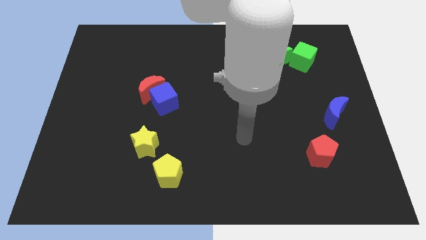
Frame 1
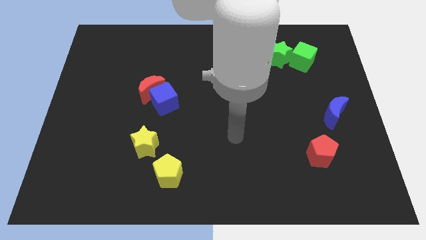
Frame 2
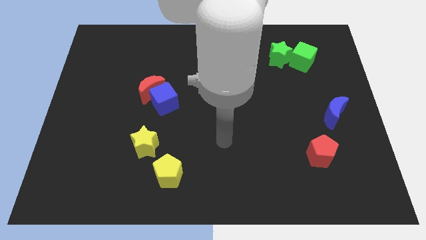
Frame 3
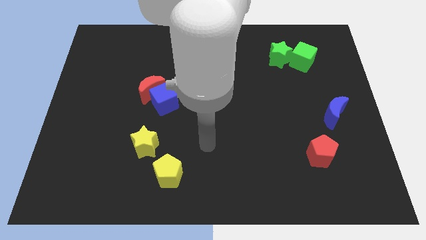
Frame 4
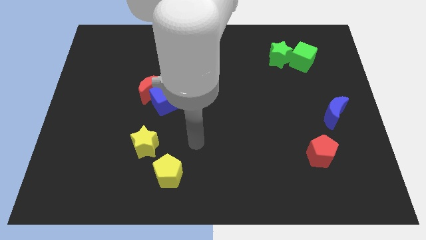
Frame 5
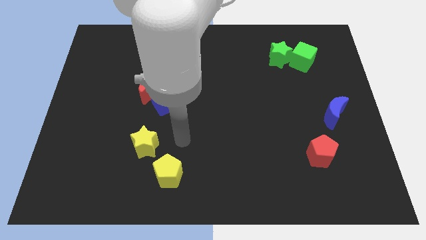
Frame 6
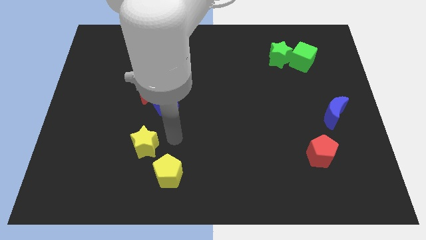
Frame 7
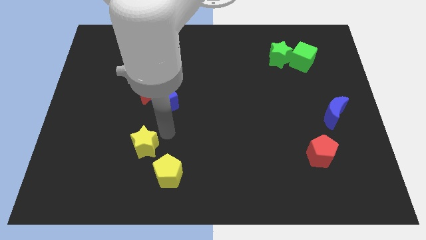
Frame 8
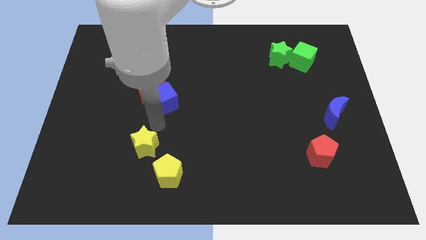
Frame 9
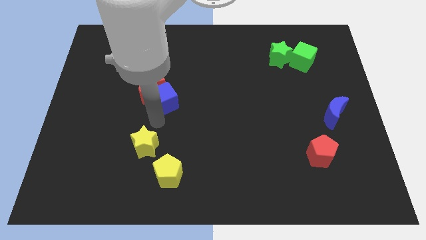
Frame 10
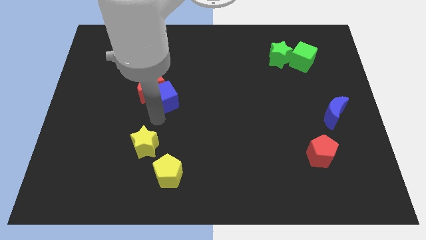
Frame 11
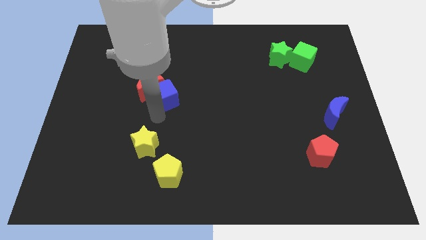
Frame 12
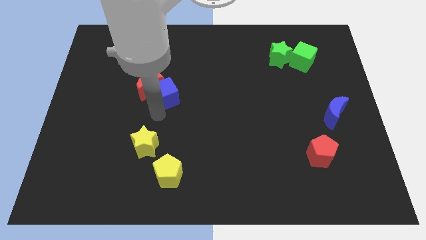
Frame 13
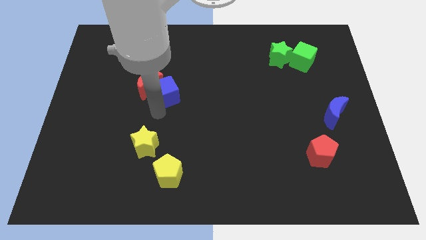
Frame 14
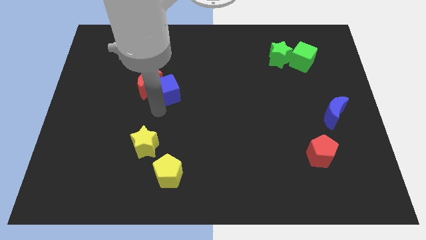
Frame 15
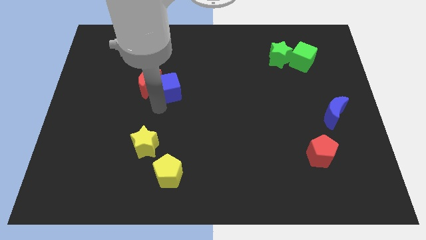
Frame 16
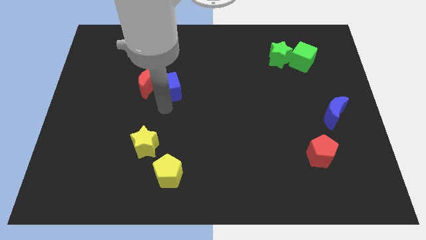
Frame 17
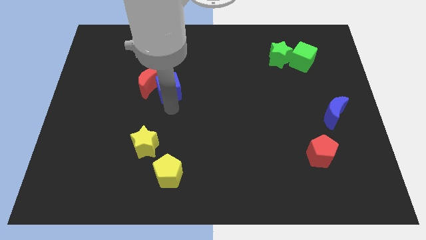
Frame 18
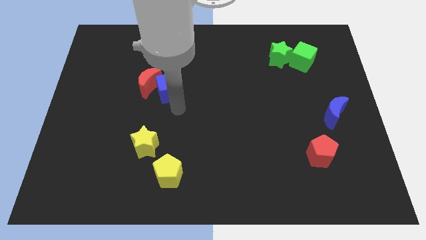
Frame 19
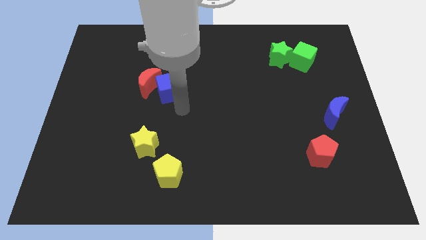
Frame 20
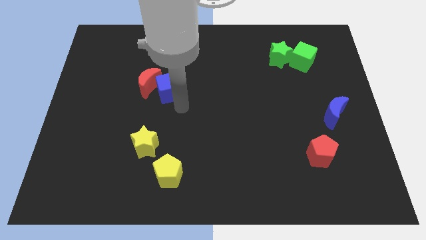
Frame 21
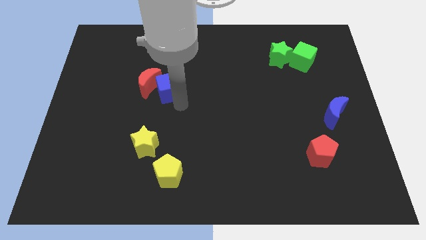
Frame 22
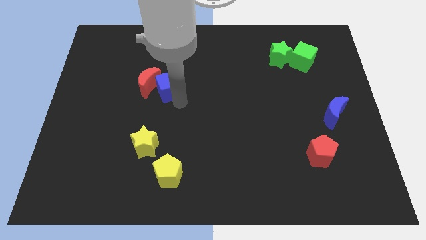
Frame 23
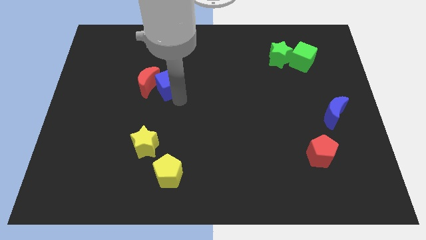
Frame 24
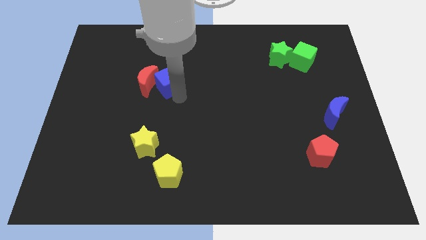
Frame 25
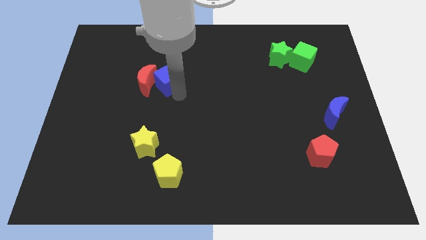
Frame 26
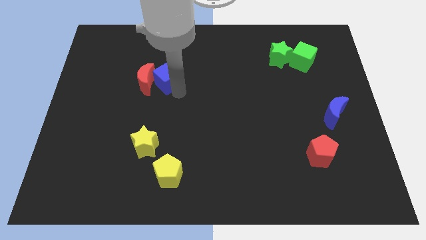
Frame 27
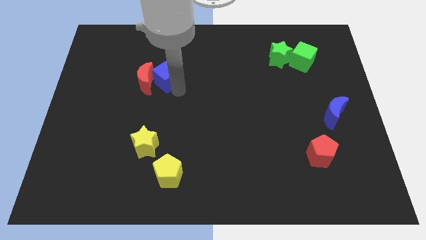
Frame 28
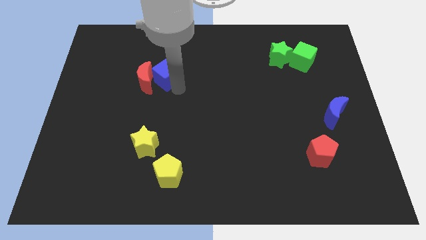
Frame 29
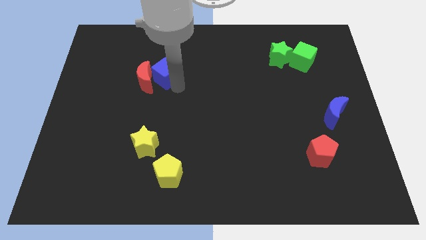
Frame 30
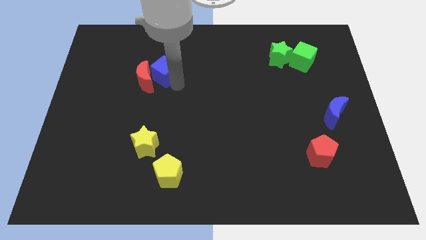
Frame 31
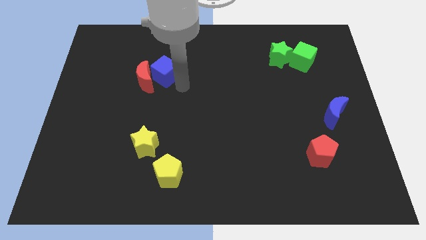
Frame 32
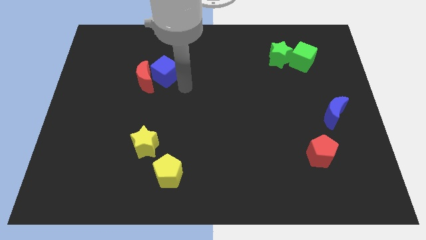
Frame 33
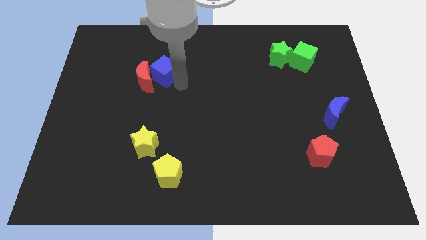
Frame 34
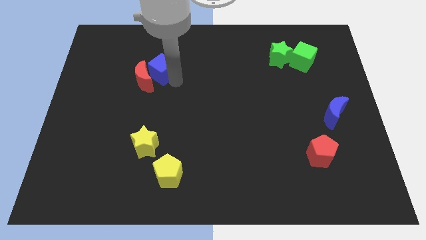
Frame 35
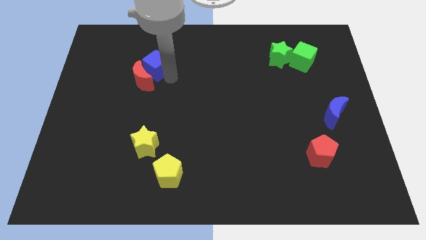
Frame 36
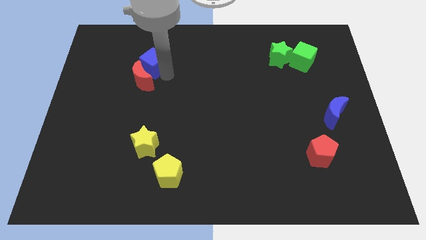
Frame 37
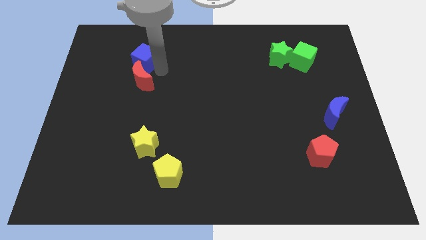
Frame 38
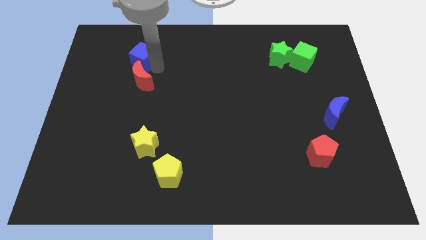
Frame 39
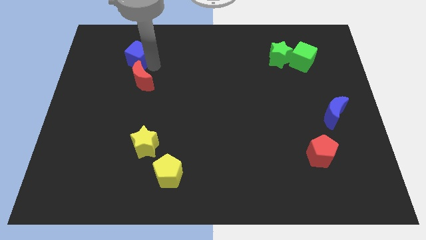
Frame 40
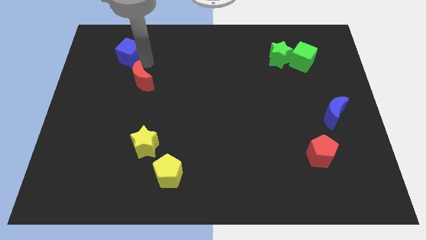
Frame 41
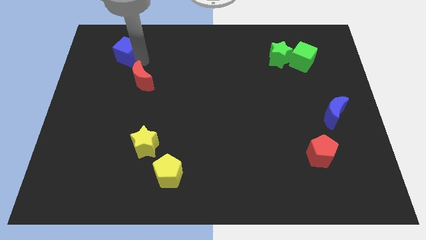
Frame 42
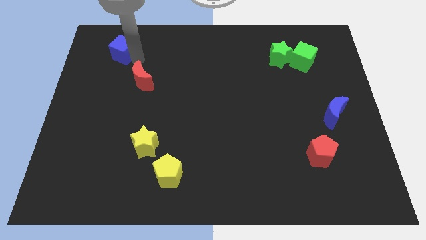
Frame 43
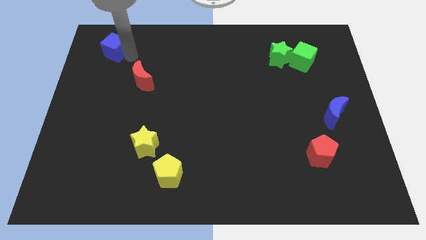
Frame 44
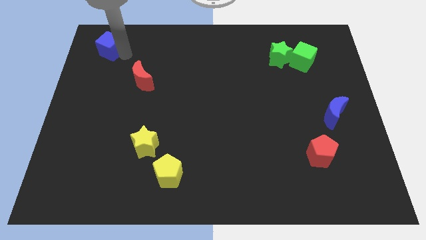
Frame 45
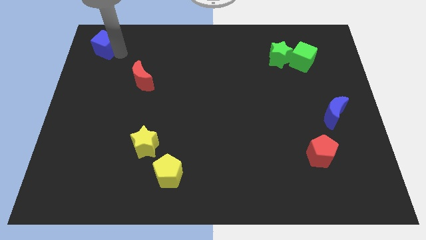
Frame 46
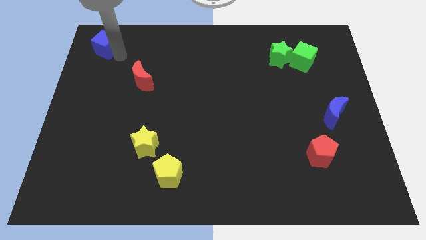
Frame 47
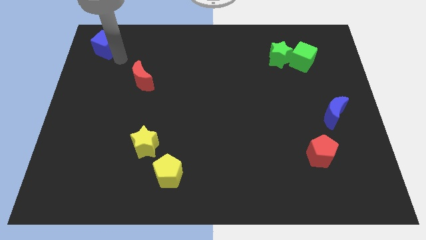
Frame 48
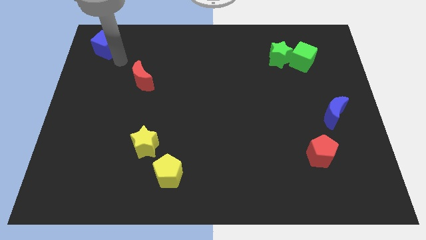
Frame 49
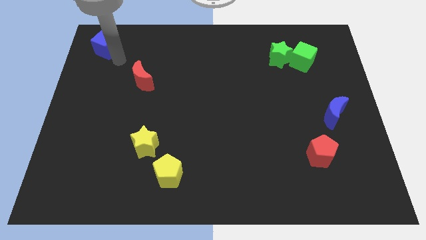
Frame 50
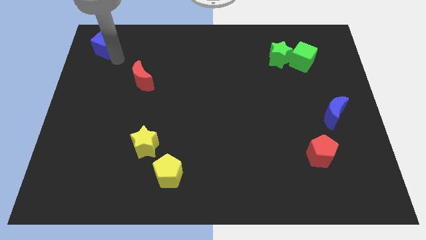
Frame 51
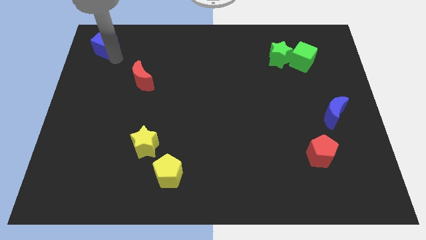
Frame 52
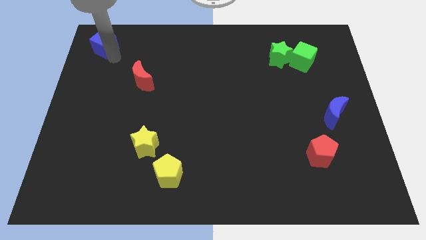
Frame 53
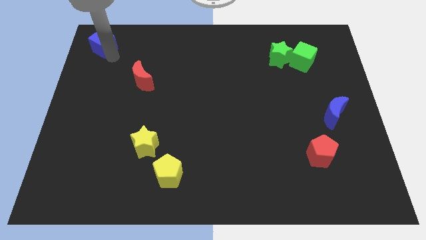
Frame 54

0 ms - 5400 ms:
slide the blue cube to the upper left corner

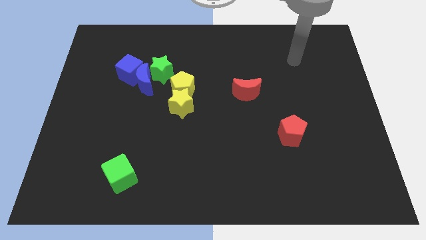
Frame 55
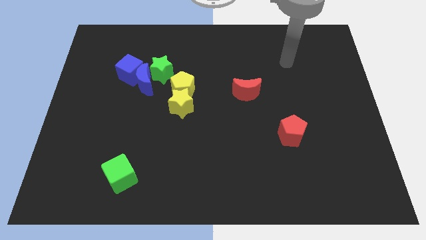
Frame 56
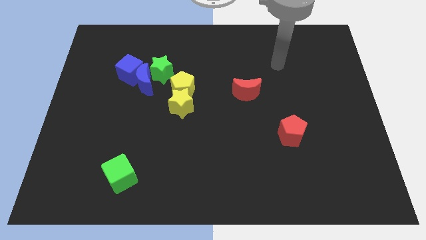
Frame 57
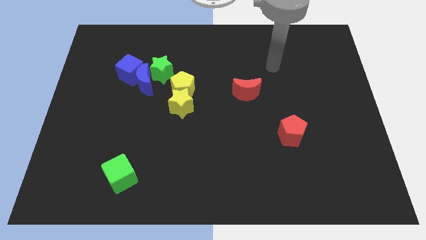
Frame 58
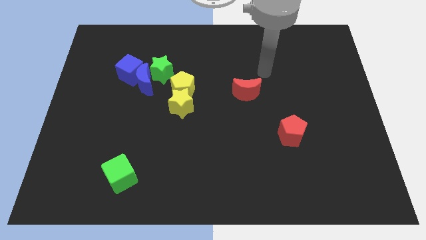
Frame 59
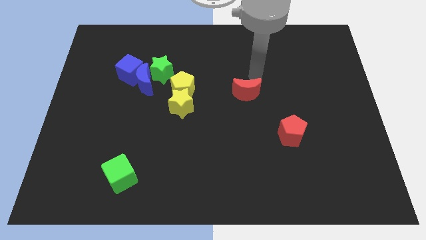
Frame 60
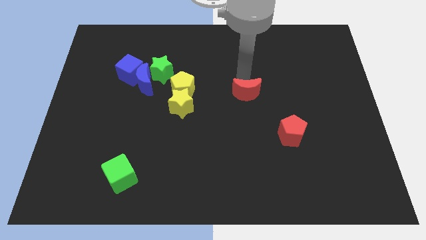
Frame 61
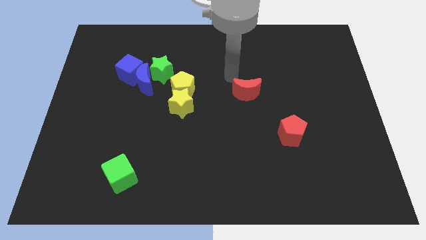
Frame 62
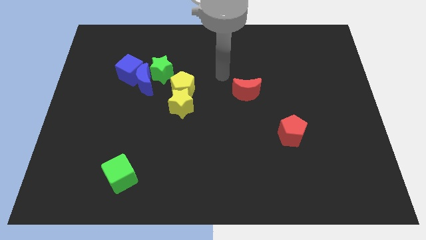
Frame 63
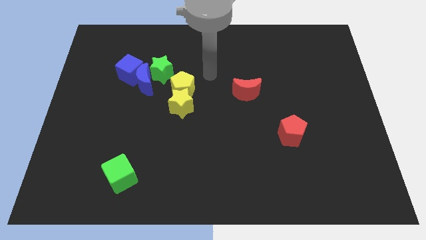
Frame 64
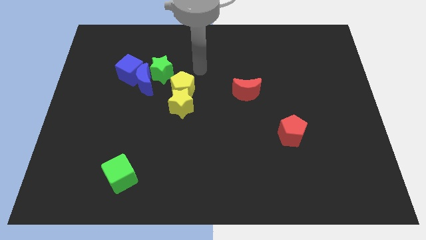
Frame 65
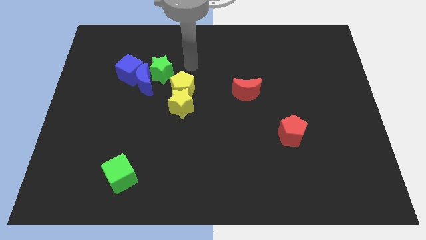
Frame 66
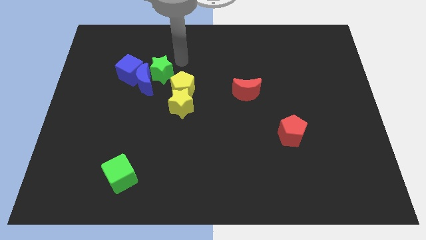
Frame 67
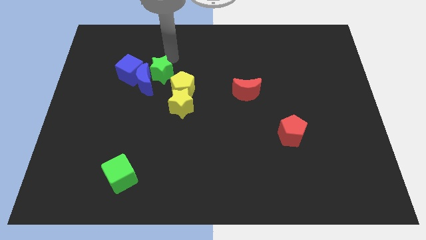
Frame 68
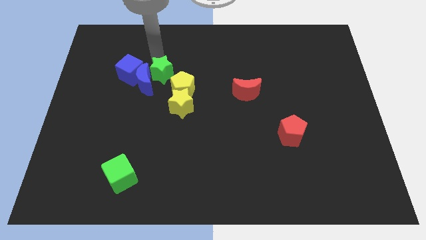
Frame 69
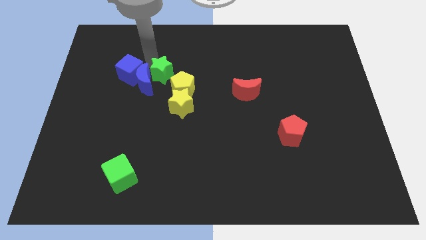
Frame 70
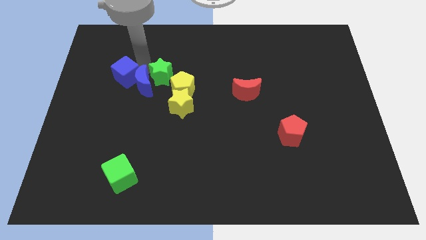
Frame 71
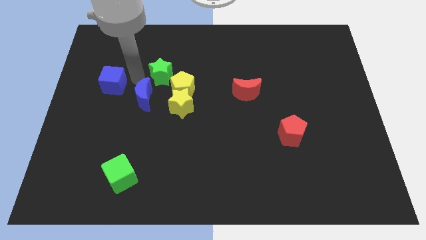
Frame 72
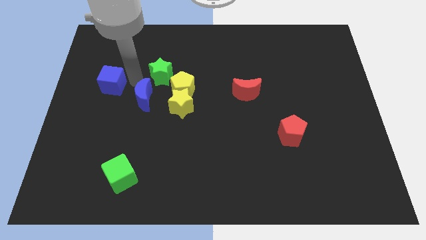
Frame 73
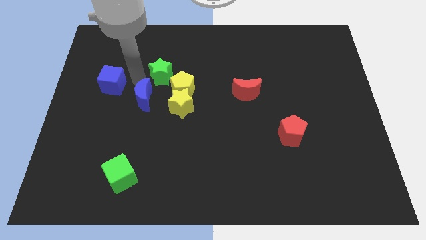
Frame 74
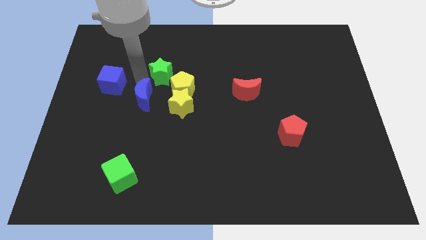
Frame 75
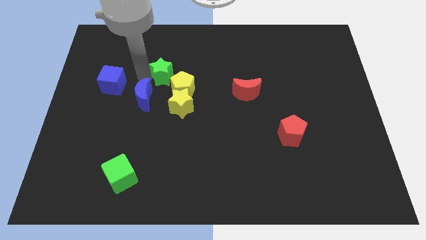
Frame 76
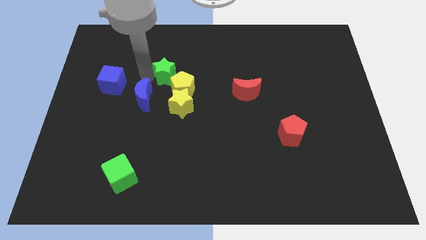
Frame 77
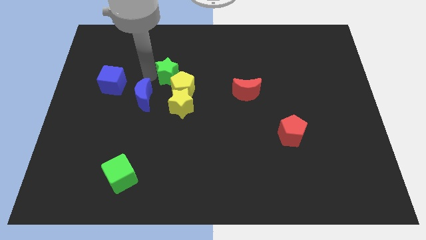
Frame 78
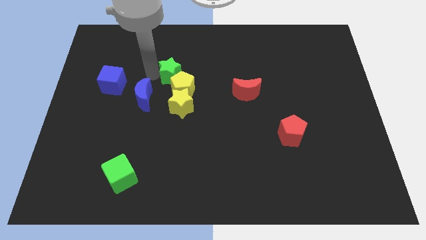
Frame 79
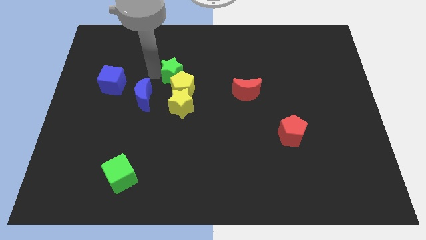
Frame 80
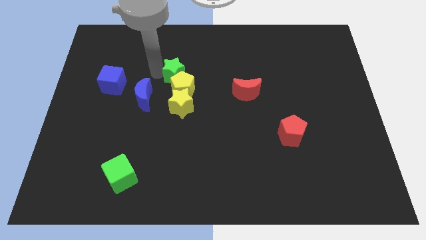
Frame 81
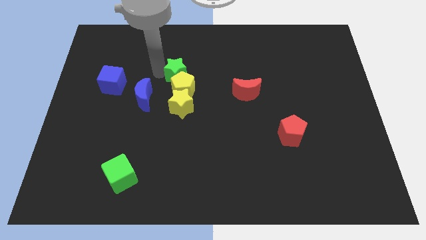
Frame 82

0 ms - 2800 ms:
push the green star to the middle of the board
